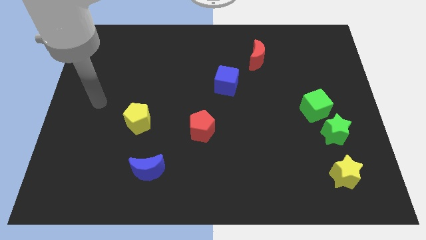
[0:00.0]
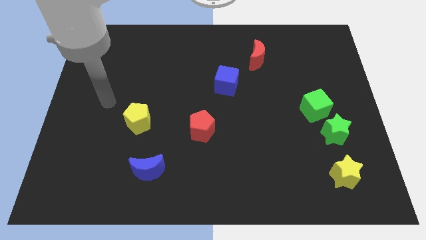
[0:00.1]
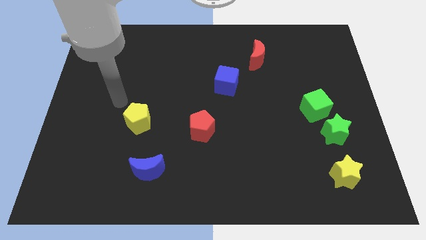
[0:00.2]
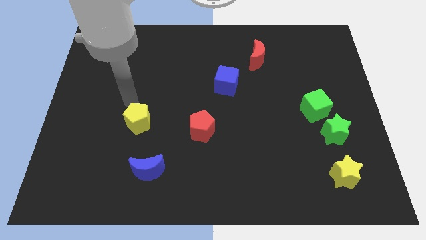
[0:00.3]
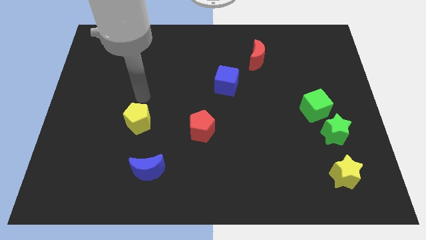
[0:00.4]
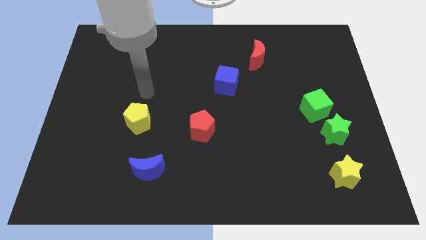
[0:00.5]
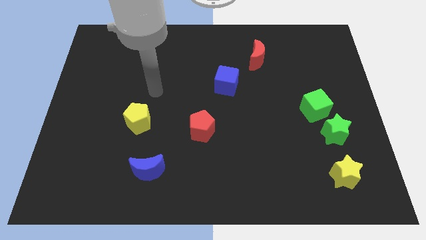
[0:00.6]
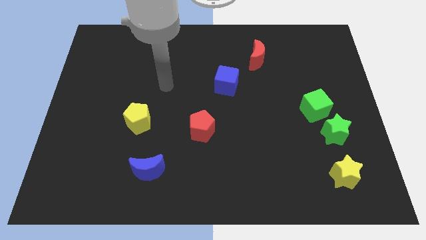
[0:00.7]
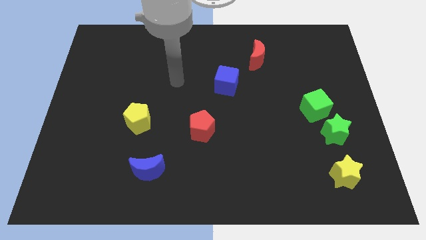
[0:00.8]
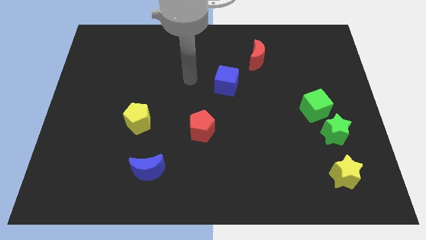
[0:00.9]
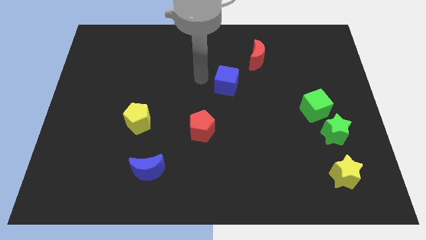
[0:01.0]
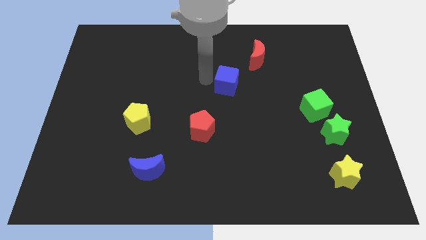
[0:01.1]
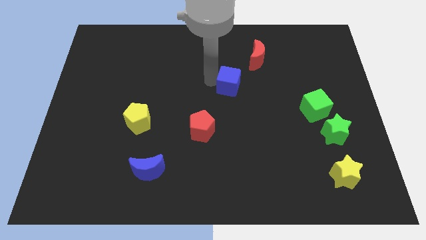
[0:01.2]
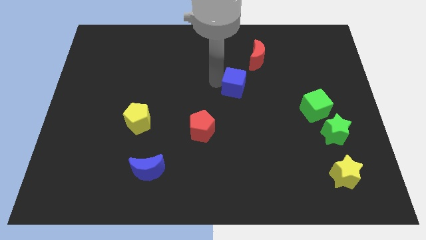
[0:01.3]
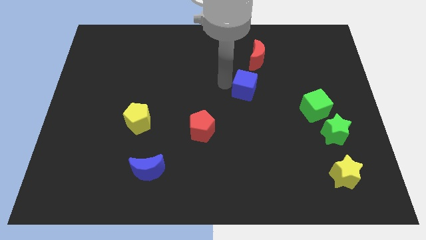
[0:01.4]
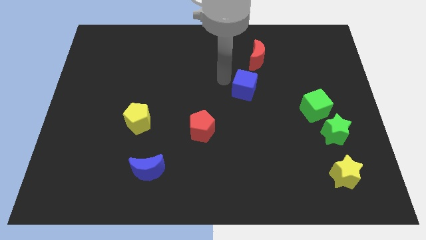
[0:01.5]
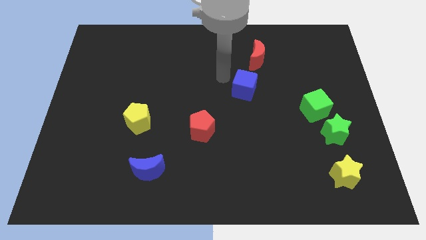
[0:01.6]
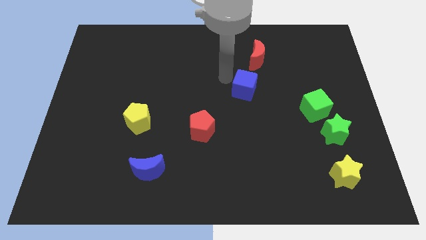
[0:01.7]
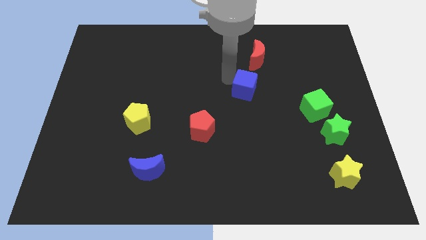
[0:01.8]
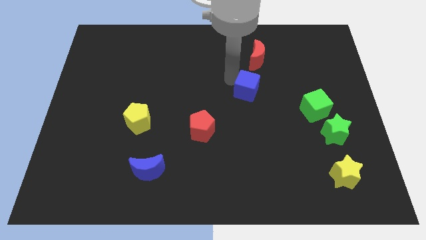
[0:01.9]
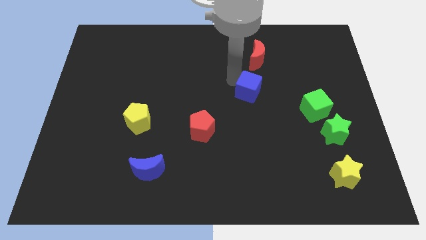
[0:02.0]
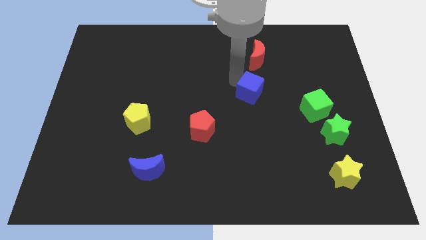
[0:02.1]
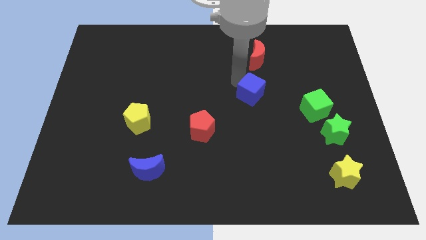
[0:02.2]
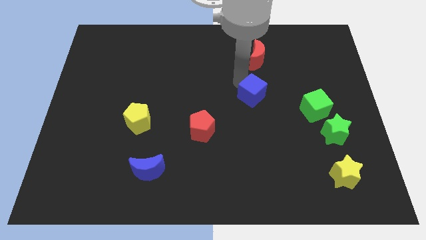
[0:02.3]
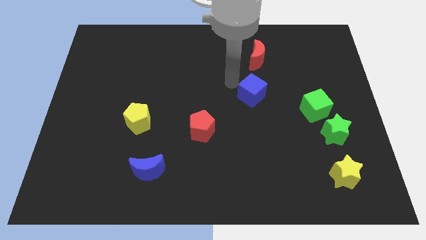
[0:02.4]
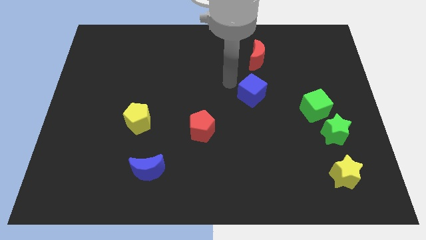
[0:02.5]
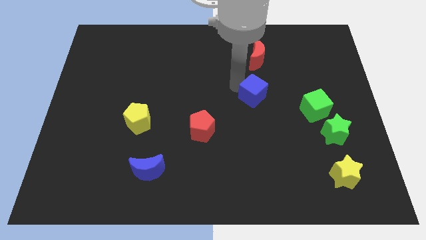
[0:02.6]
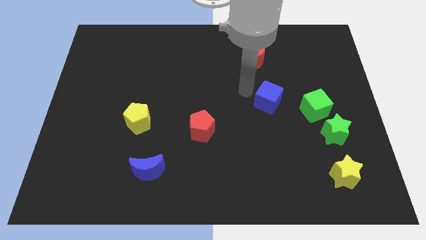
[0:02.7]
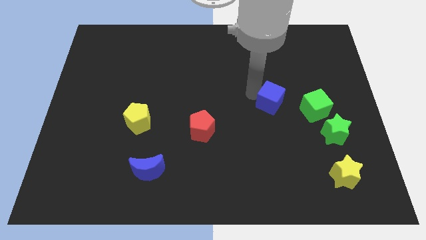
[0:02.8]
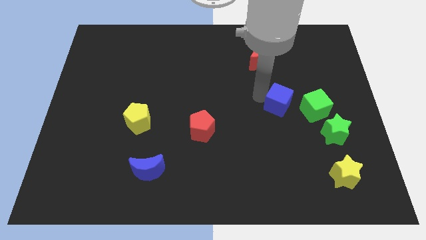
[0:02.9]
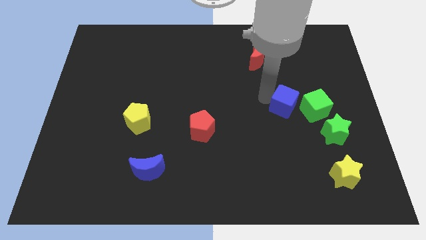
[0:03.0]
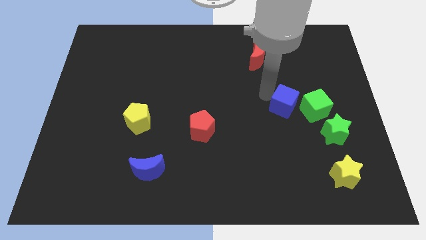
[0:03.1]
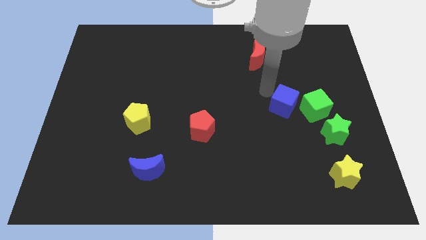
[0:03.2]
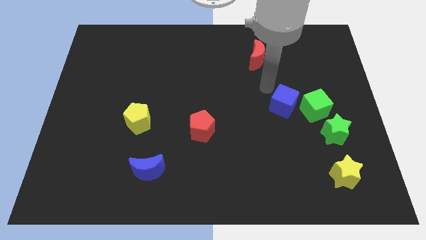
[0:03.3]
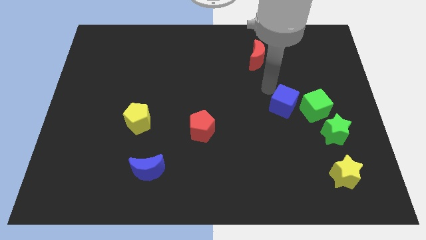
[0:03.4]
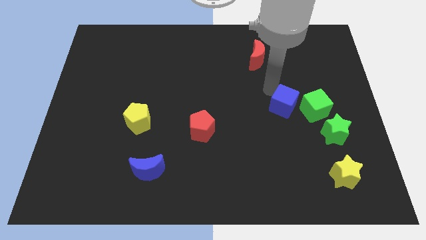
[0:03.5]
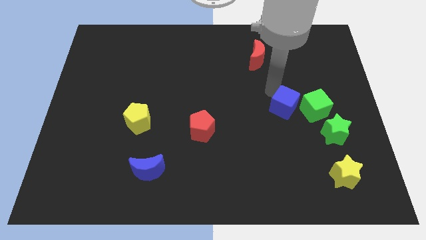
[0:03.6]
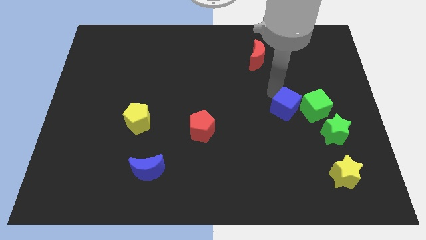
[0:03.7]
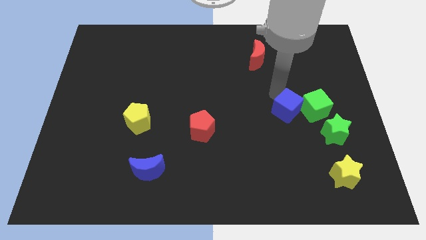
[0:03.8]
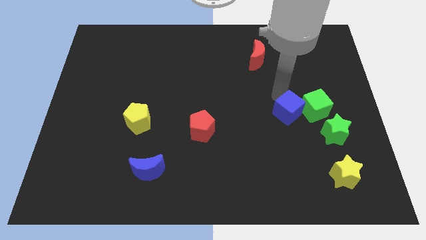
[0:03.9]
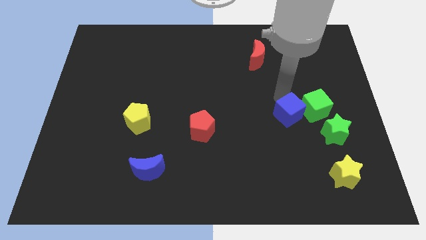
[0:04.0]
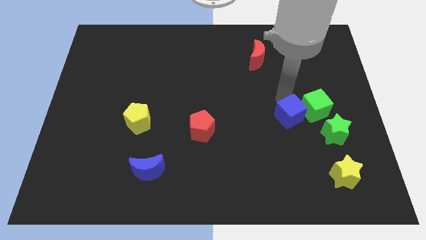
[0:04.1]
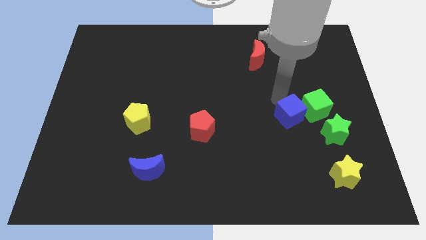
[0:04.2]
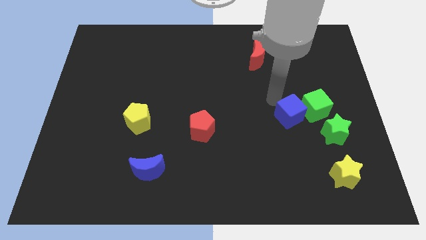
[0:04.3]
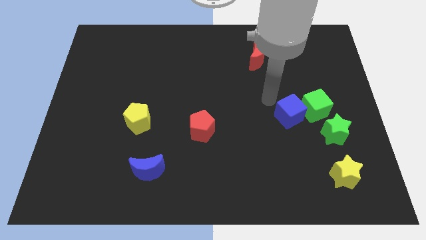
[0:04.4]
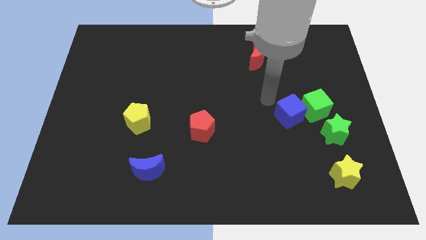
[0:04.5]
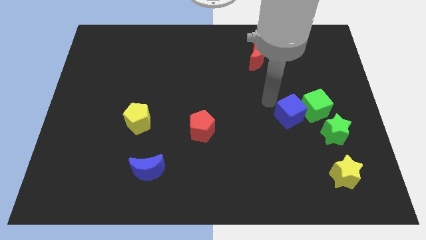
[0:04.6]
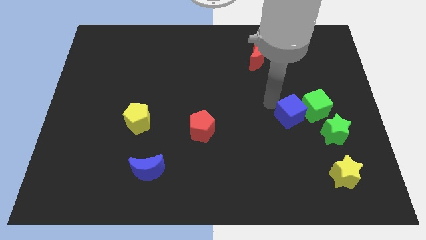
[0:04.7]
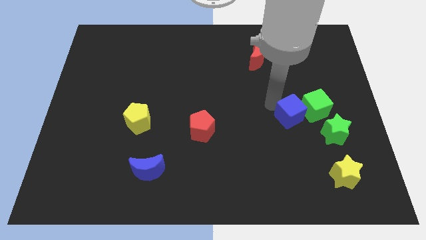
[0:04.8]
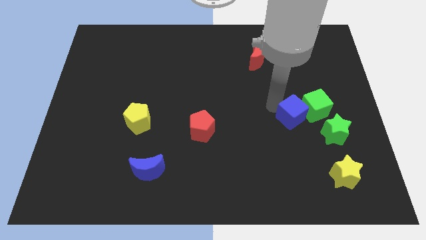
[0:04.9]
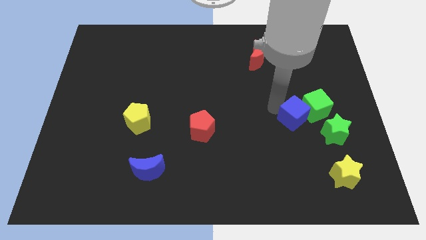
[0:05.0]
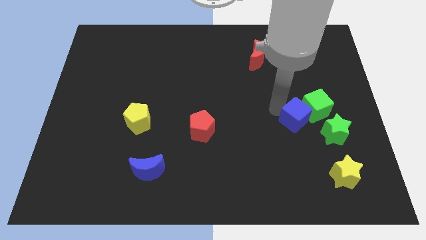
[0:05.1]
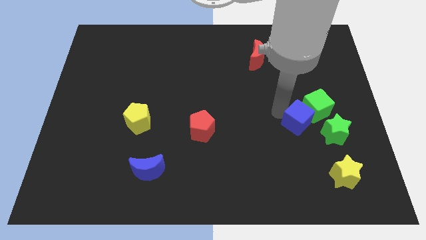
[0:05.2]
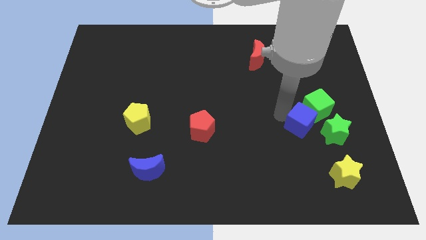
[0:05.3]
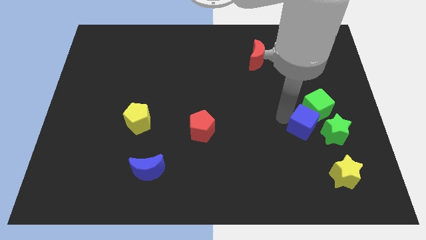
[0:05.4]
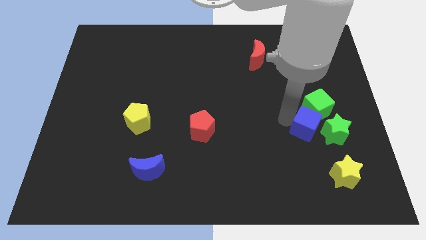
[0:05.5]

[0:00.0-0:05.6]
push the blue cube next to the green star

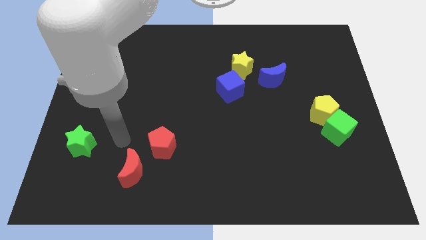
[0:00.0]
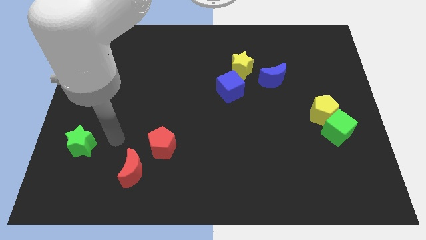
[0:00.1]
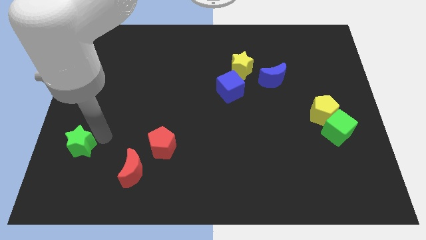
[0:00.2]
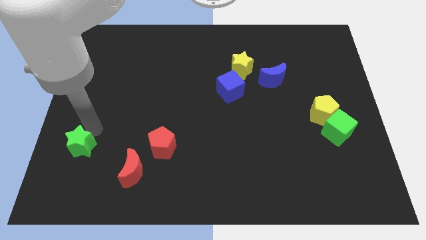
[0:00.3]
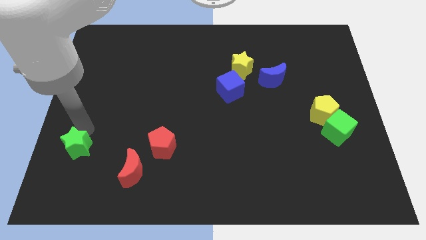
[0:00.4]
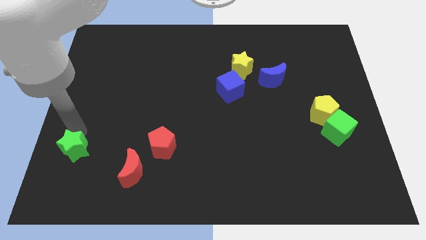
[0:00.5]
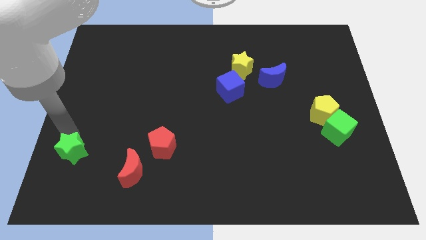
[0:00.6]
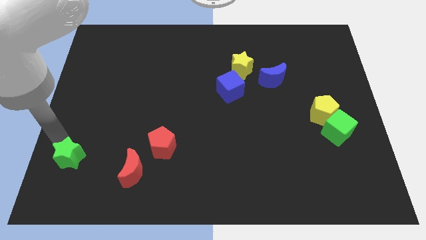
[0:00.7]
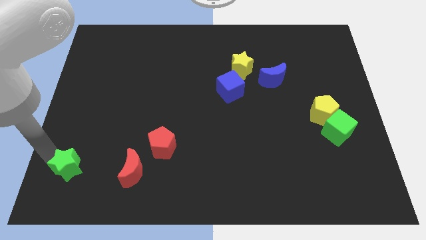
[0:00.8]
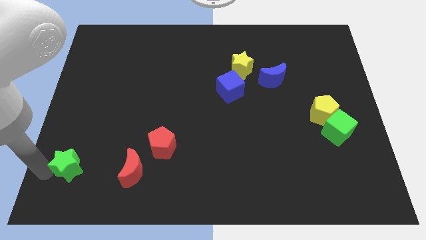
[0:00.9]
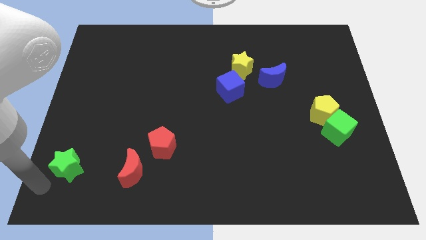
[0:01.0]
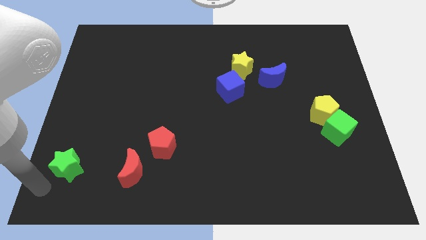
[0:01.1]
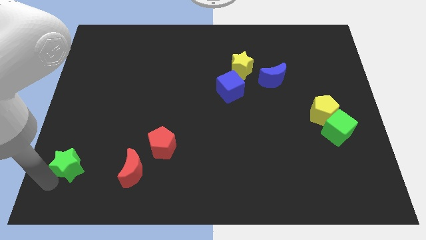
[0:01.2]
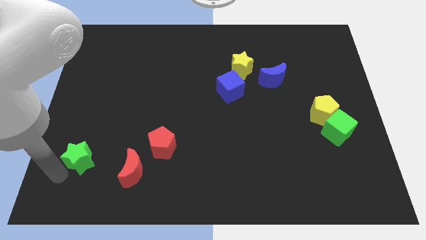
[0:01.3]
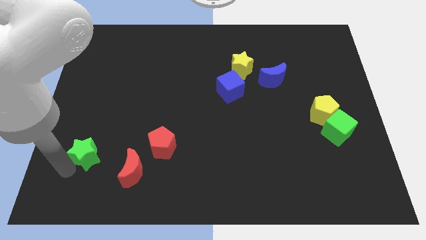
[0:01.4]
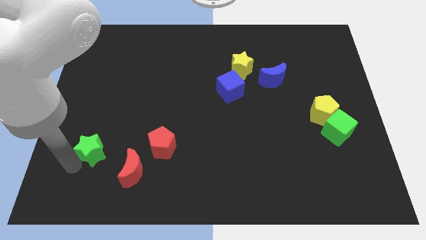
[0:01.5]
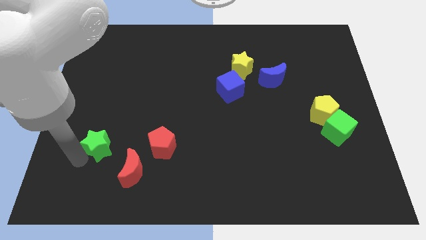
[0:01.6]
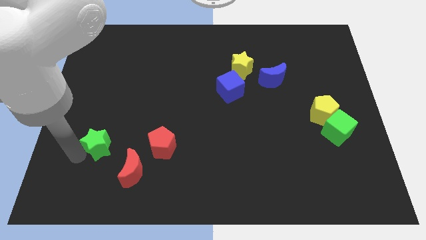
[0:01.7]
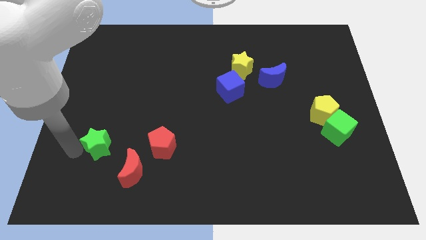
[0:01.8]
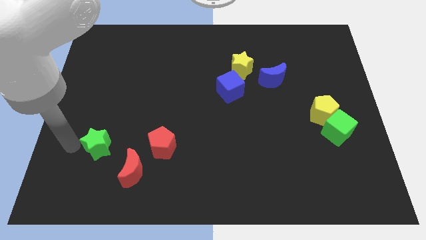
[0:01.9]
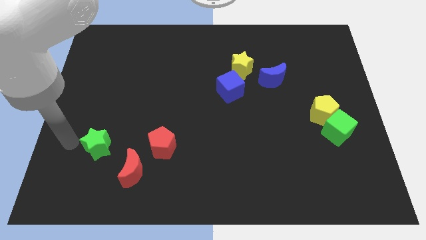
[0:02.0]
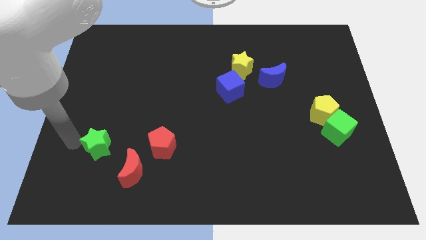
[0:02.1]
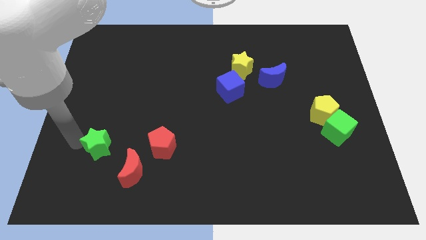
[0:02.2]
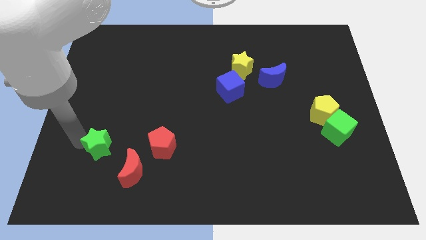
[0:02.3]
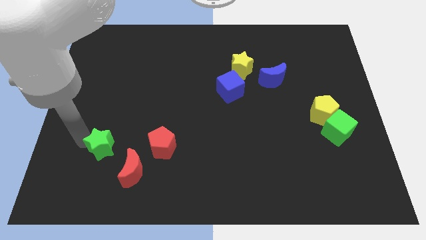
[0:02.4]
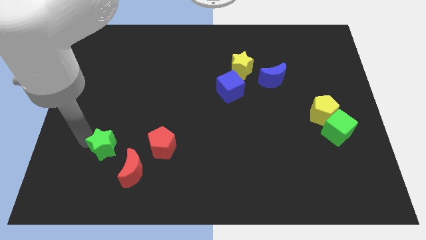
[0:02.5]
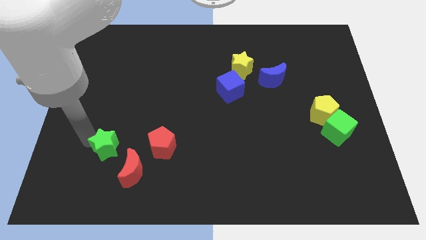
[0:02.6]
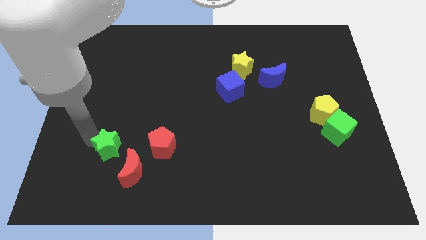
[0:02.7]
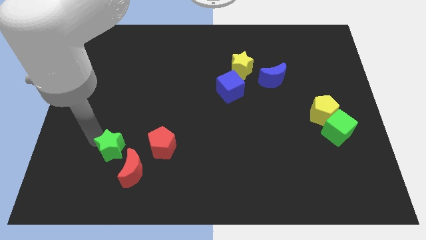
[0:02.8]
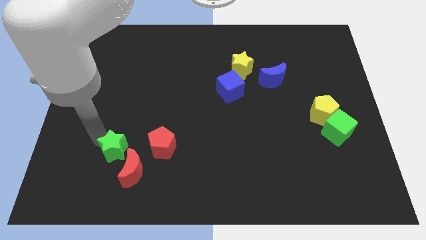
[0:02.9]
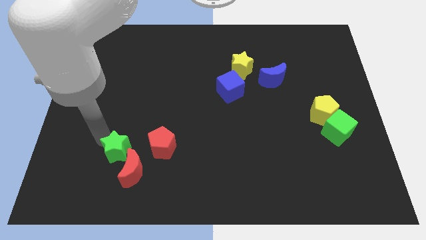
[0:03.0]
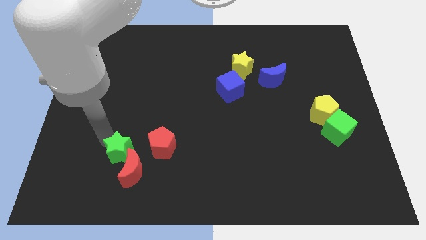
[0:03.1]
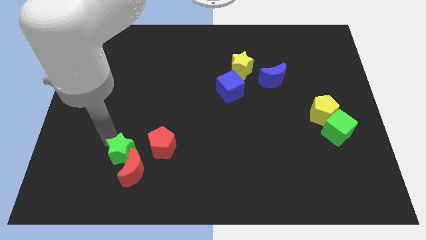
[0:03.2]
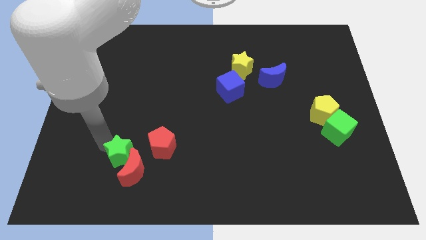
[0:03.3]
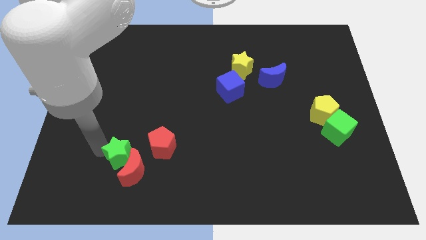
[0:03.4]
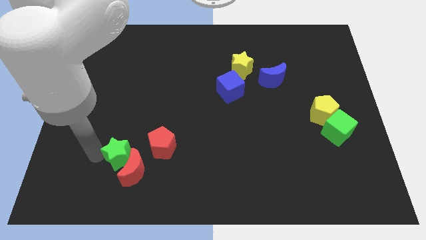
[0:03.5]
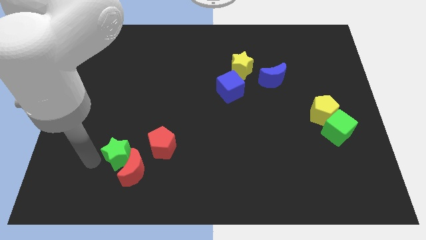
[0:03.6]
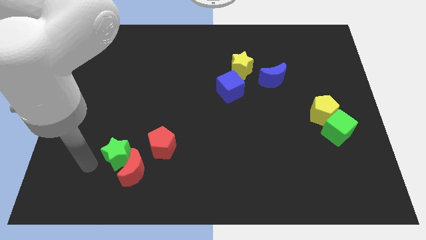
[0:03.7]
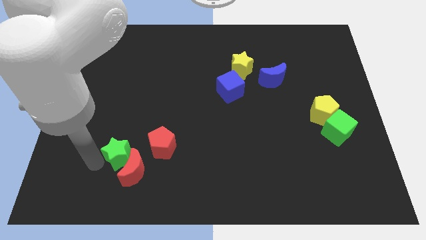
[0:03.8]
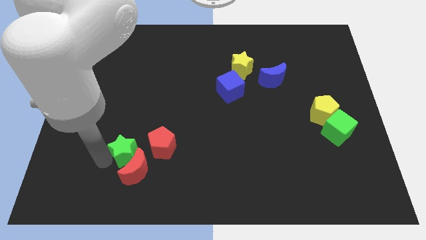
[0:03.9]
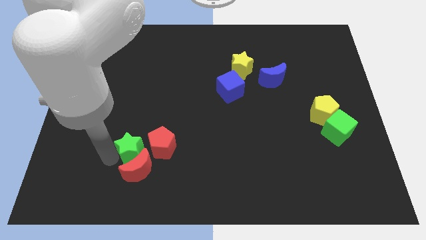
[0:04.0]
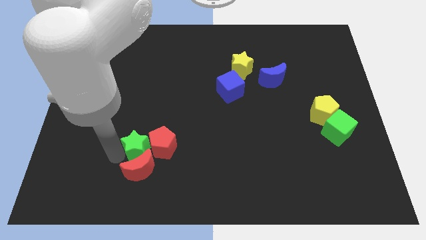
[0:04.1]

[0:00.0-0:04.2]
push the green star to the red pentagon
